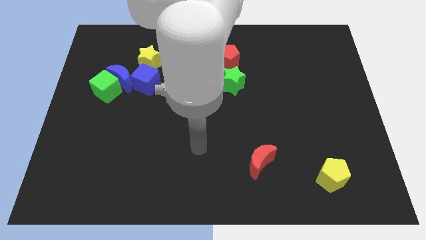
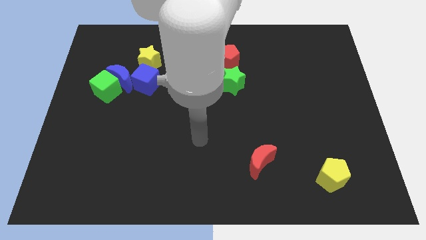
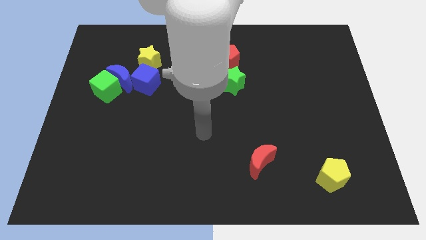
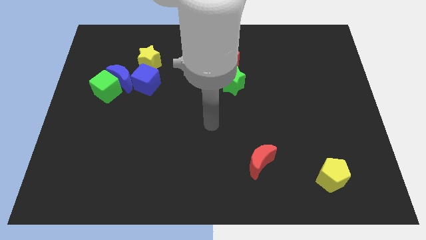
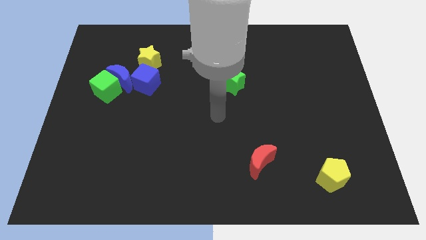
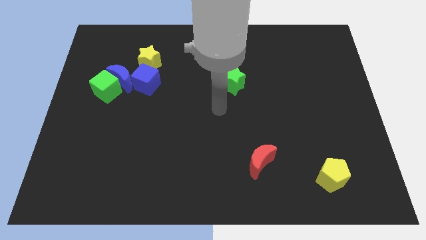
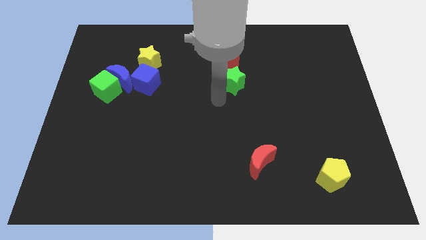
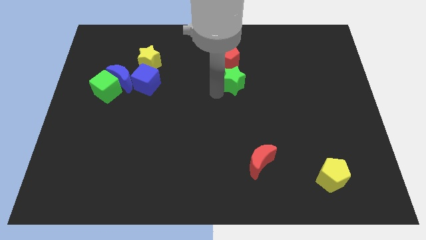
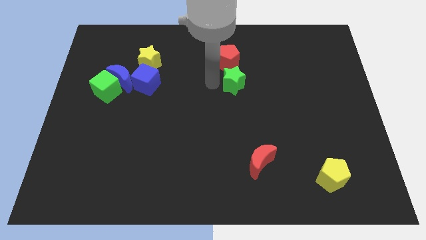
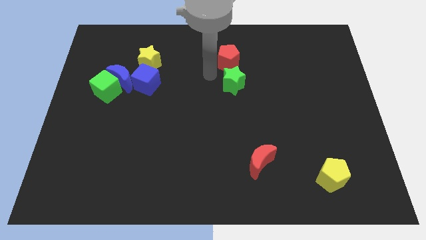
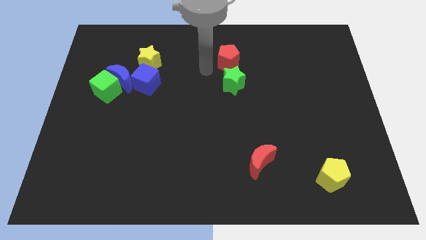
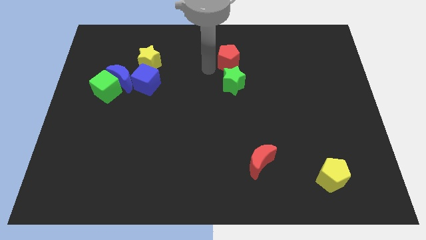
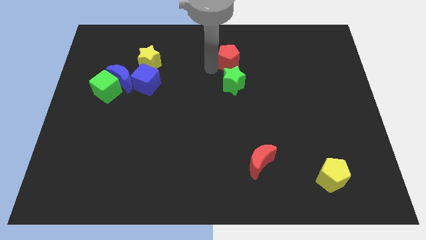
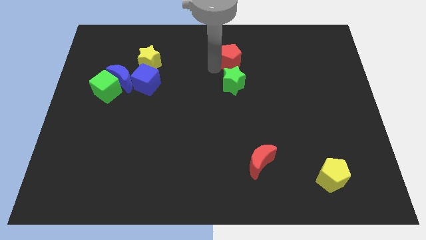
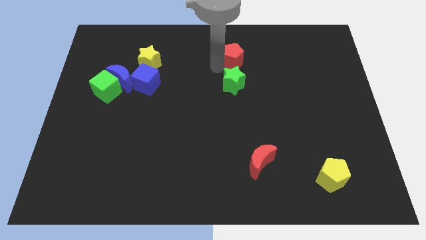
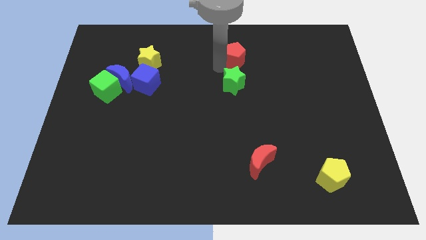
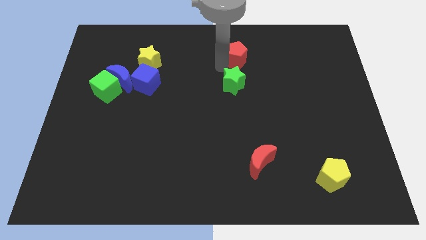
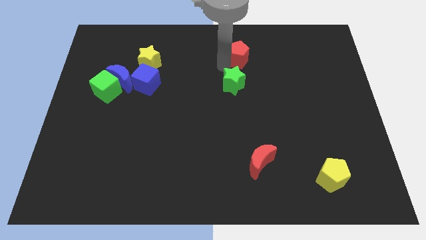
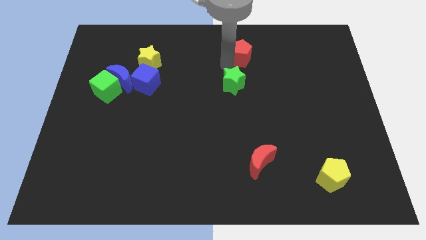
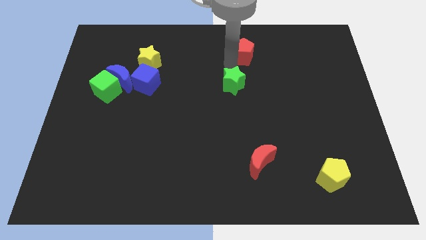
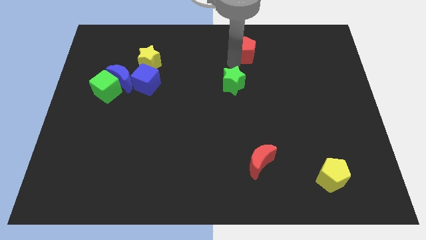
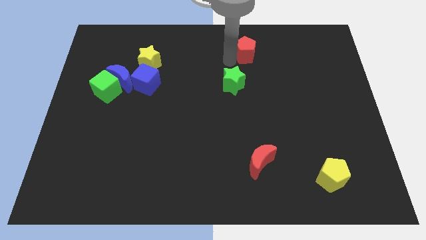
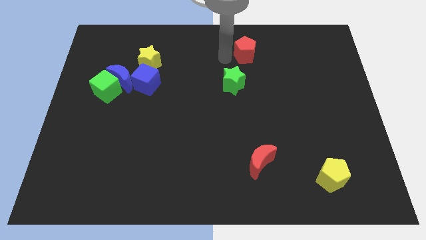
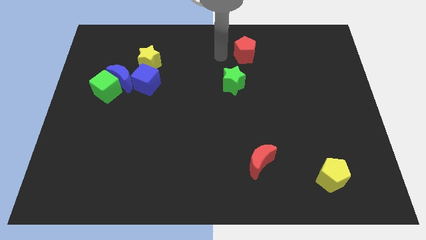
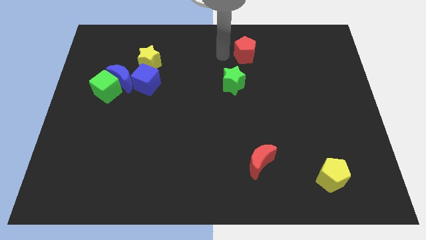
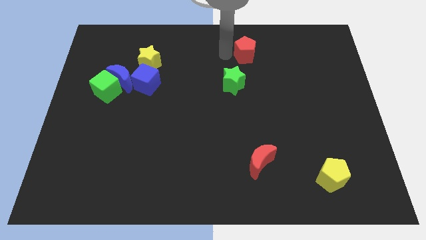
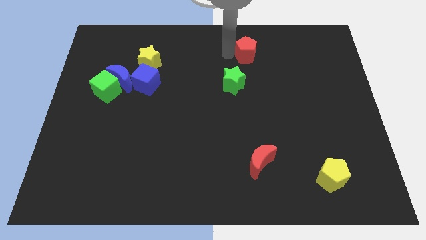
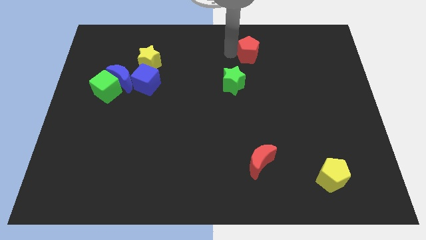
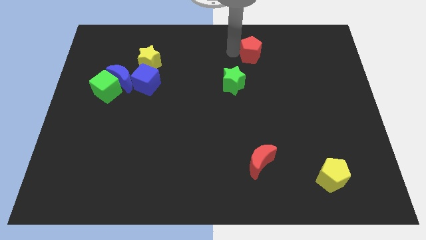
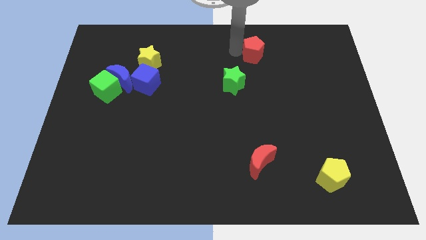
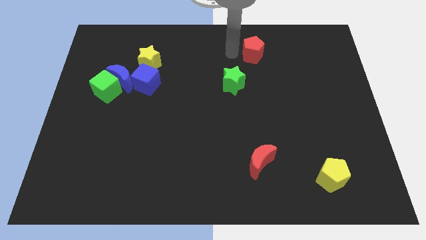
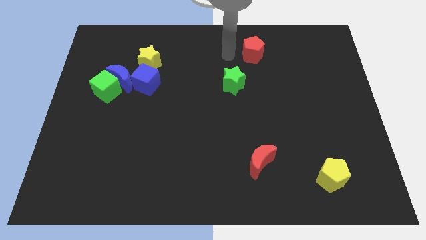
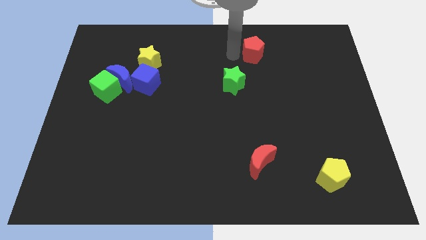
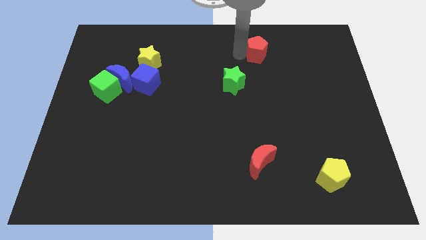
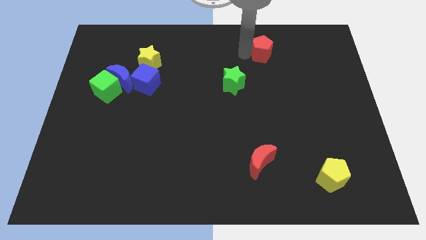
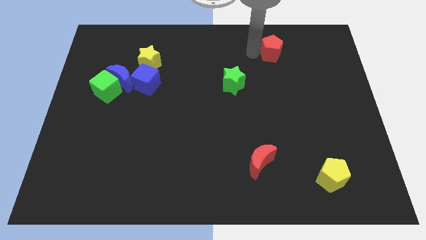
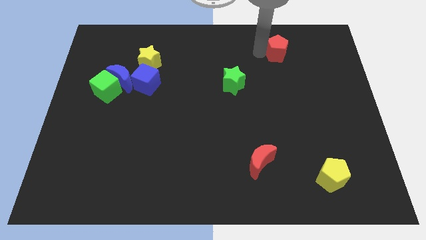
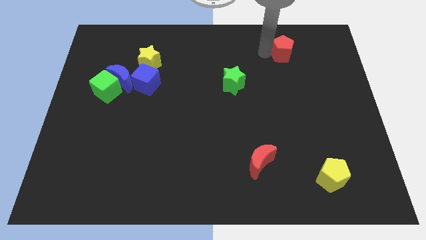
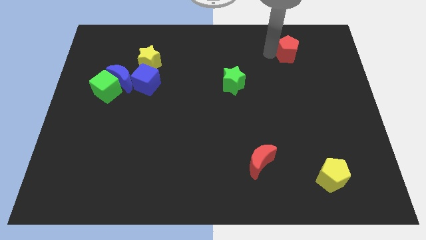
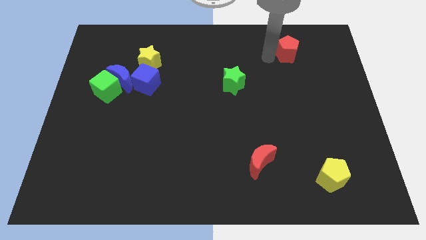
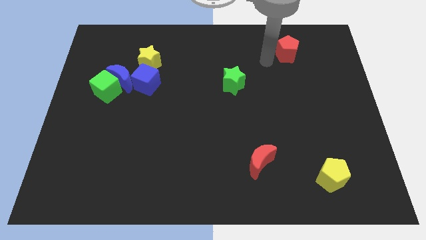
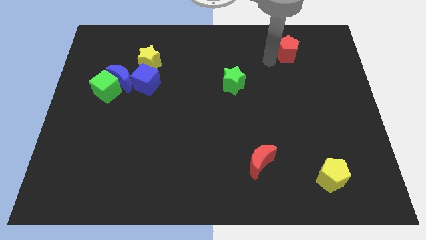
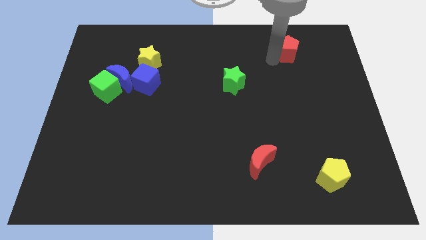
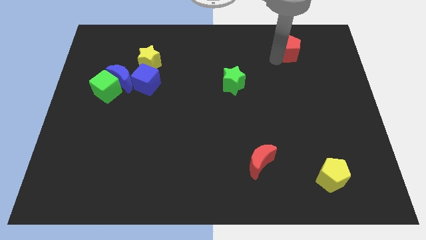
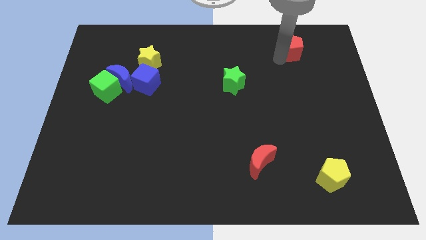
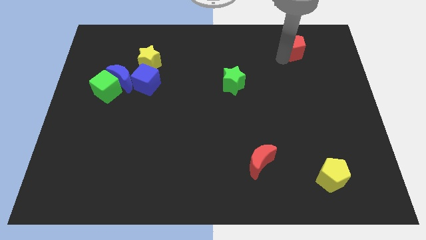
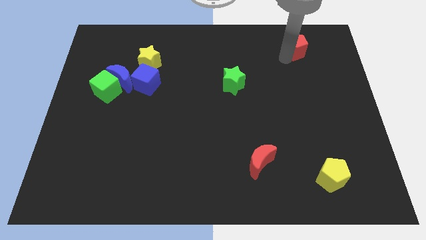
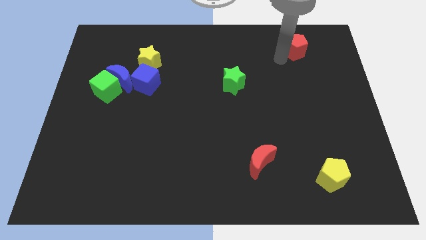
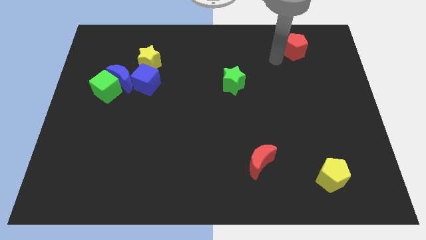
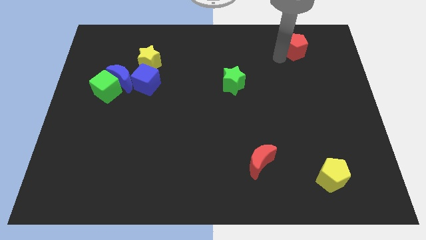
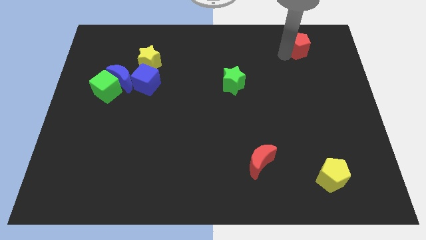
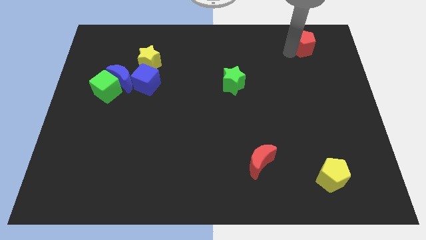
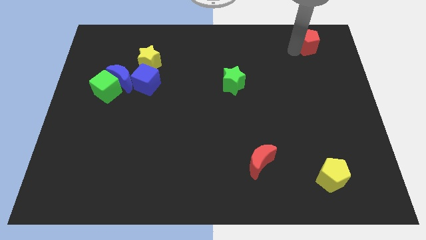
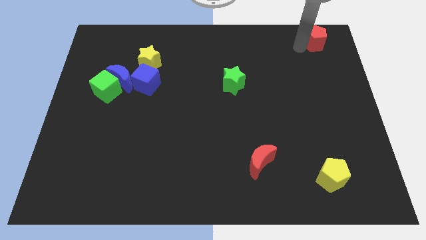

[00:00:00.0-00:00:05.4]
slide the red pentagon to the top right

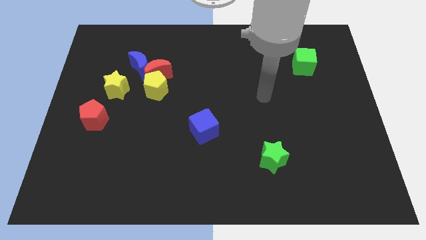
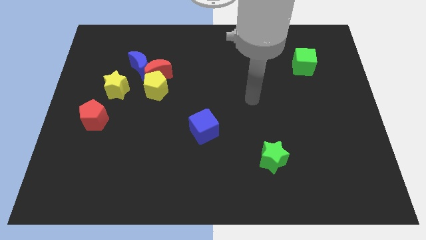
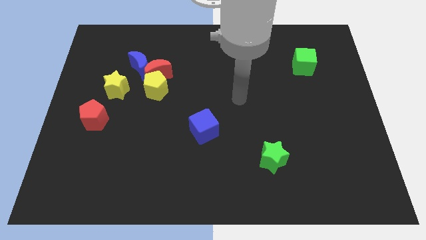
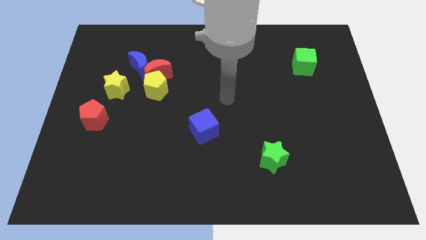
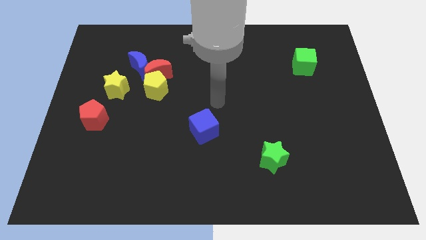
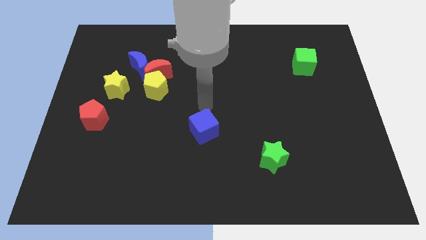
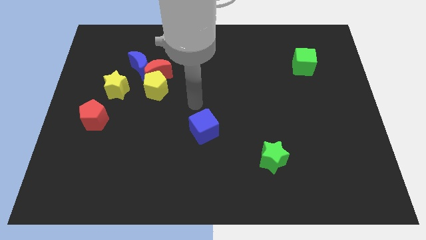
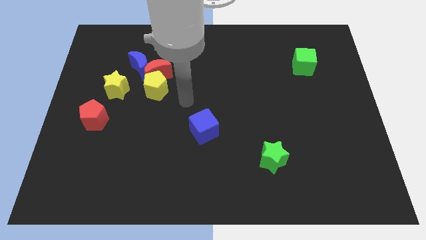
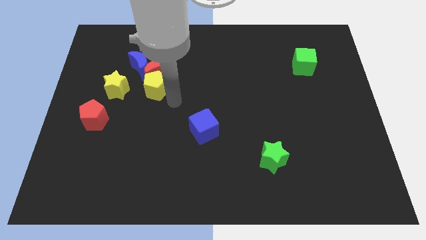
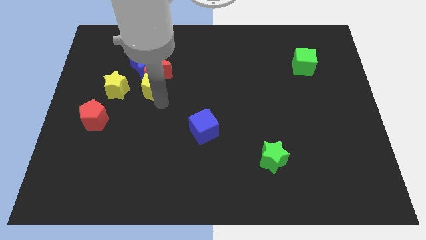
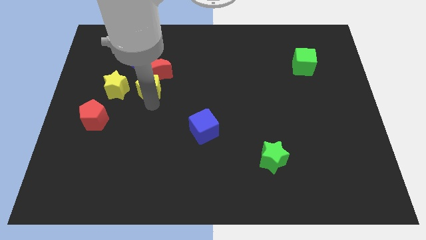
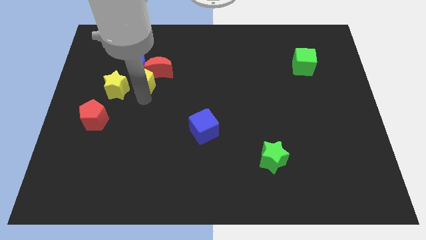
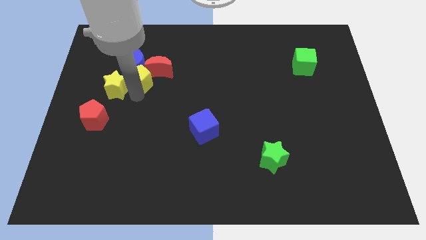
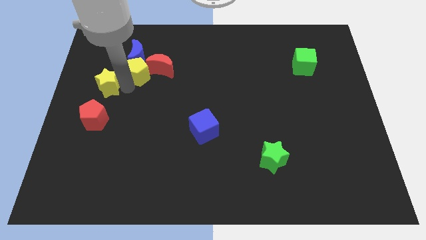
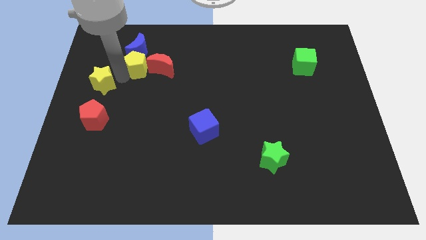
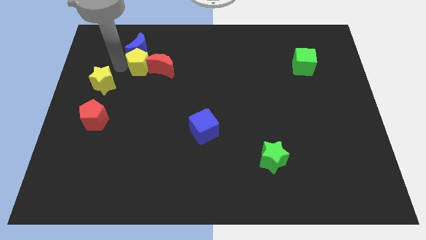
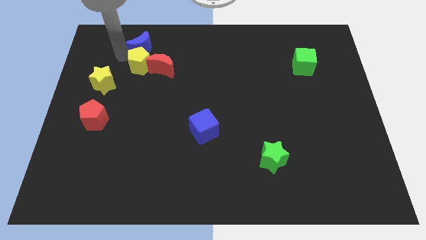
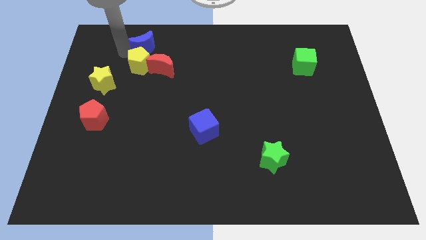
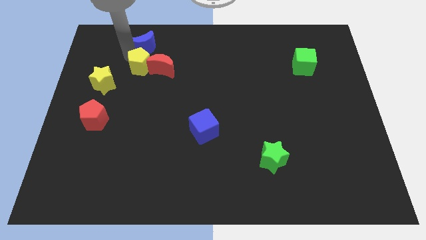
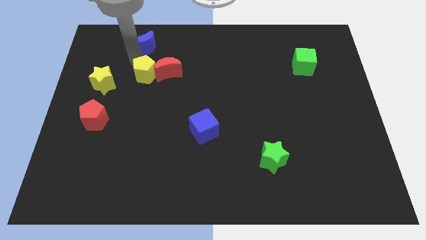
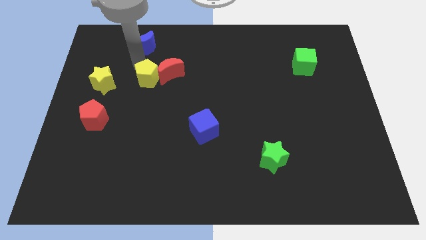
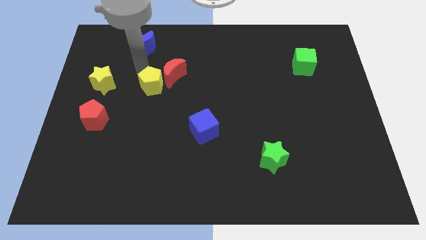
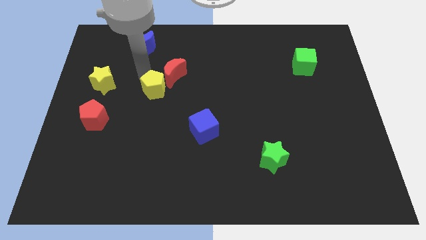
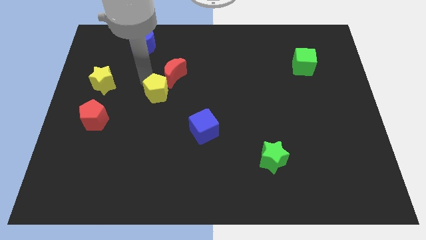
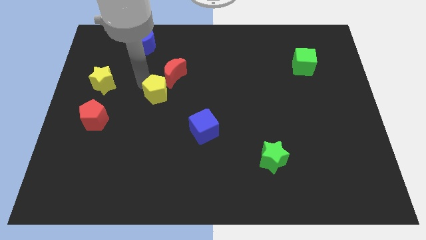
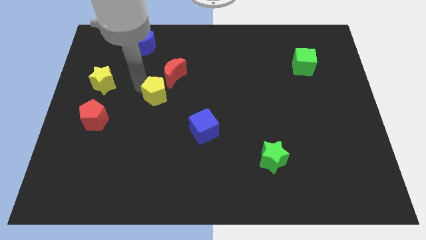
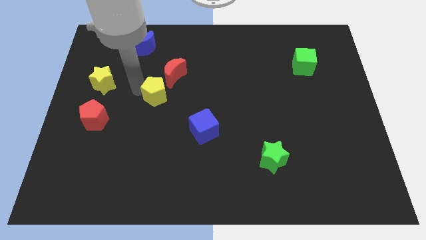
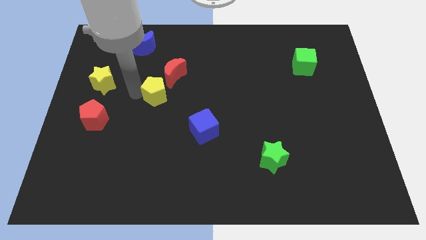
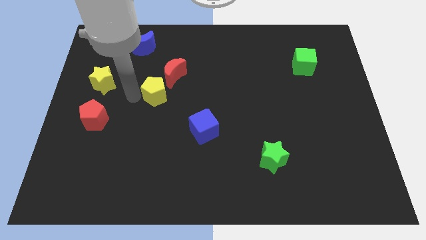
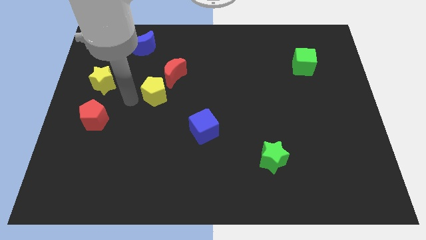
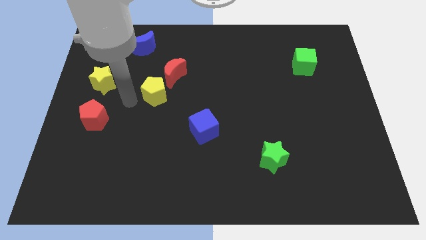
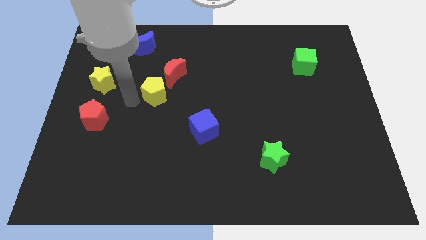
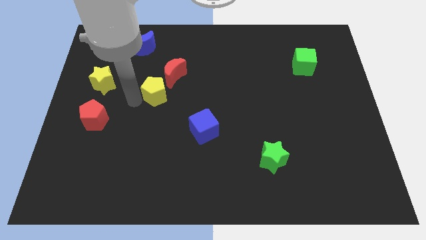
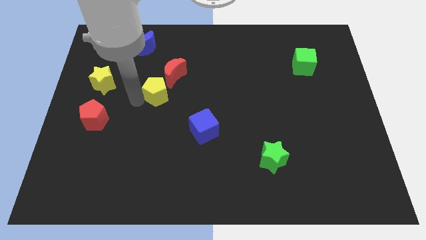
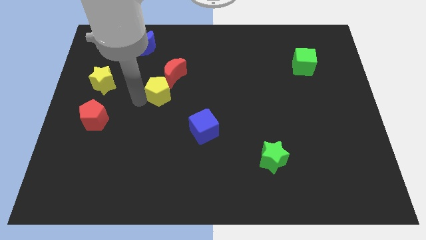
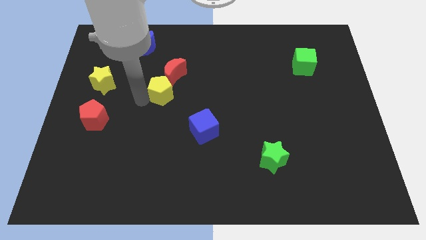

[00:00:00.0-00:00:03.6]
put the yellow pentagon to the center of the board
